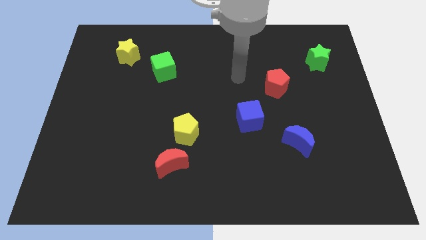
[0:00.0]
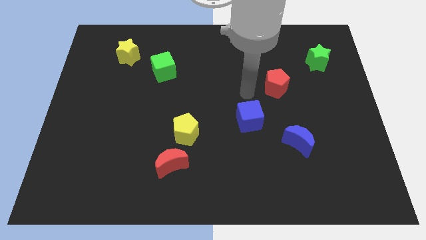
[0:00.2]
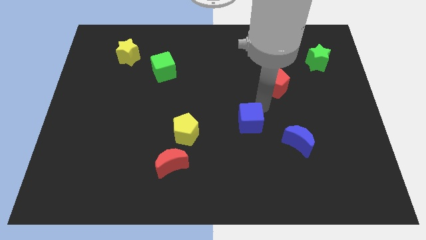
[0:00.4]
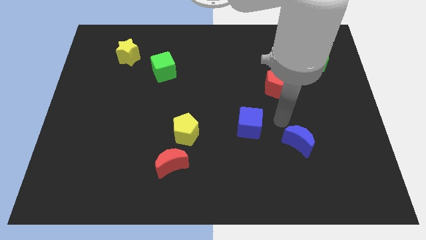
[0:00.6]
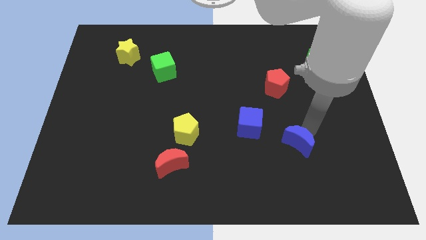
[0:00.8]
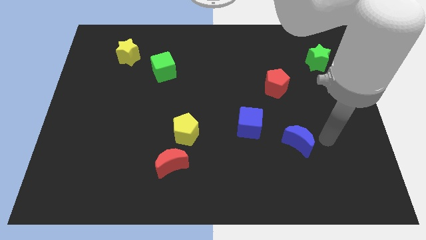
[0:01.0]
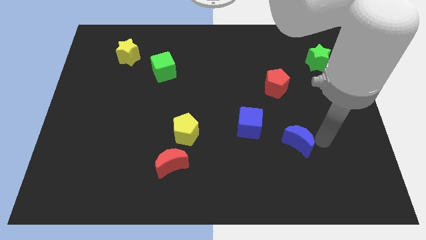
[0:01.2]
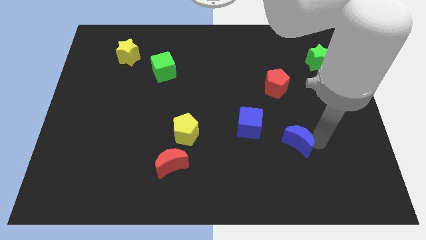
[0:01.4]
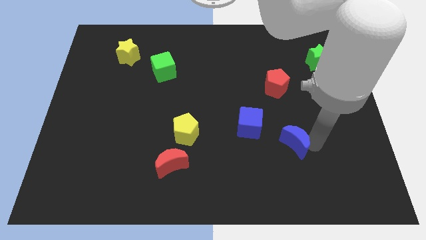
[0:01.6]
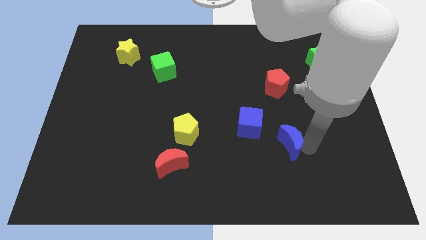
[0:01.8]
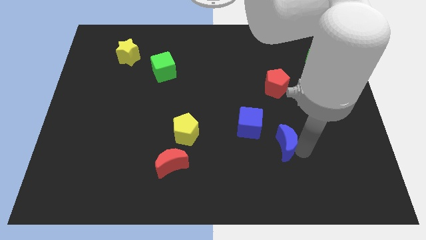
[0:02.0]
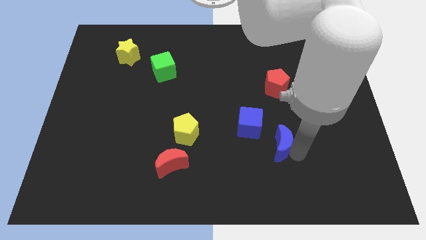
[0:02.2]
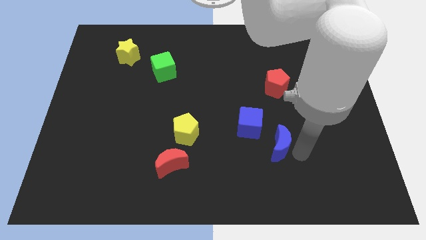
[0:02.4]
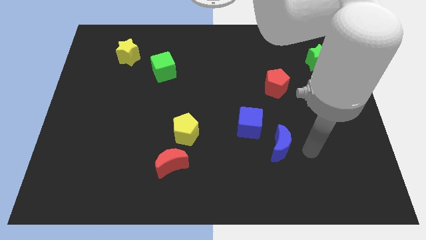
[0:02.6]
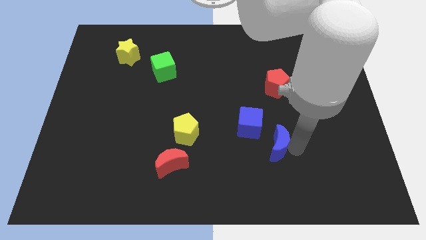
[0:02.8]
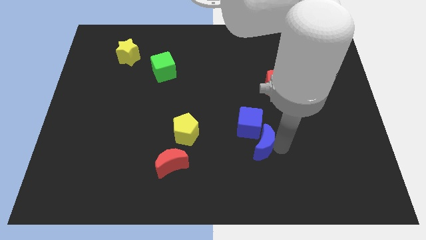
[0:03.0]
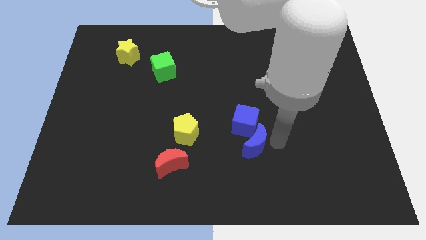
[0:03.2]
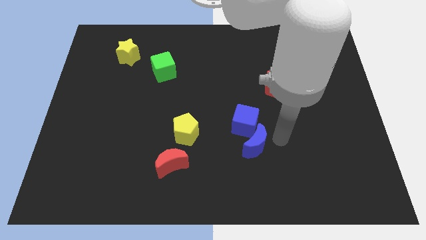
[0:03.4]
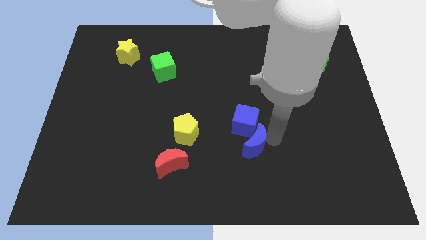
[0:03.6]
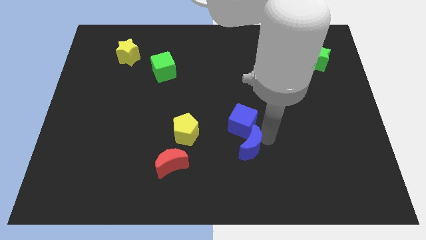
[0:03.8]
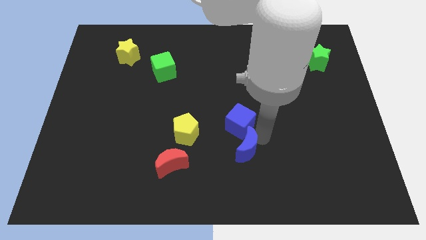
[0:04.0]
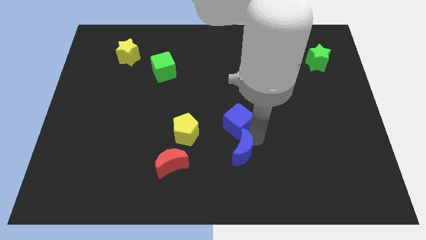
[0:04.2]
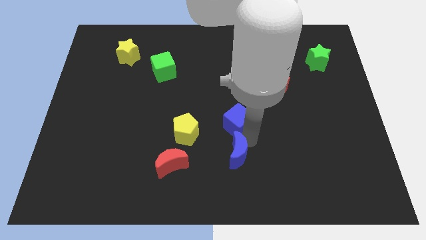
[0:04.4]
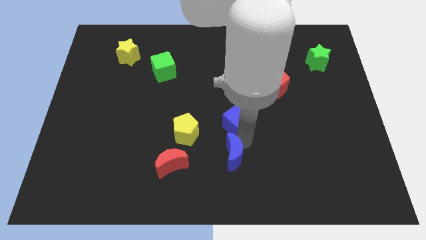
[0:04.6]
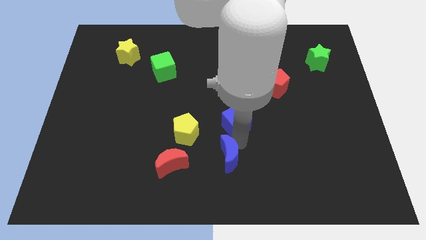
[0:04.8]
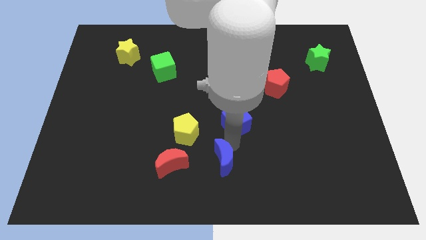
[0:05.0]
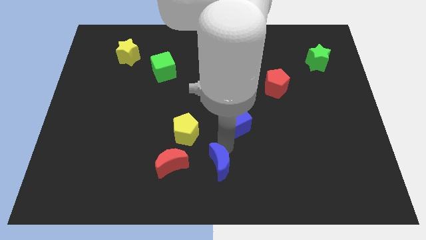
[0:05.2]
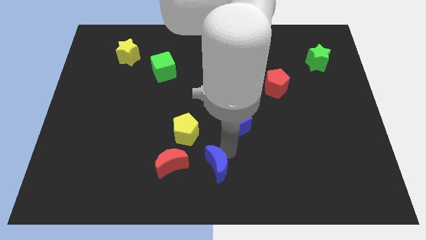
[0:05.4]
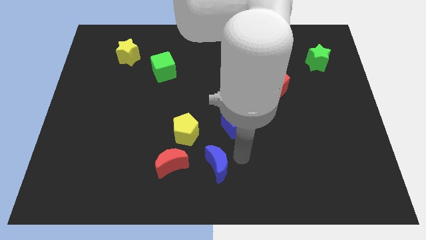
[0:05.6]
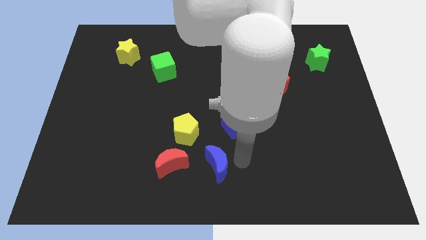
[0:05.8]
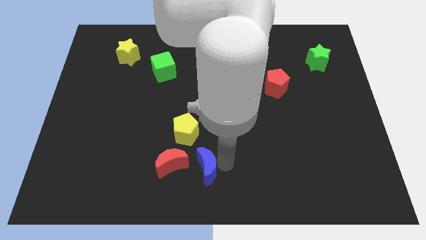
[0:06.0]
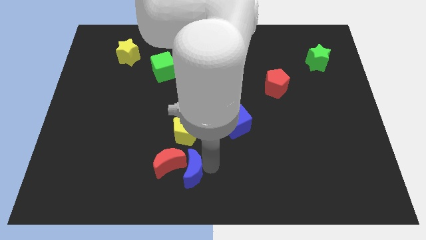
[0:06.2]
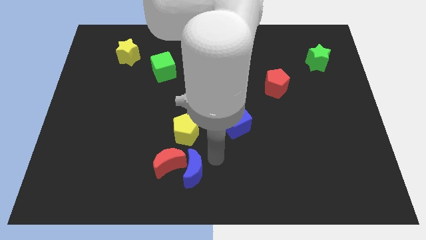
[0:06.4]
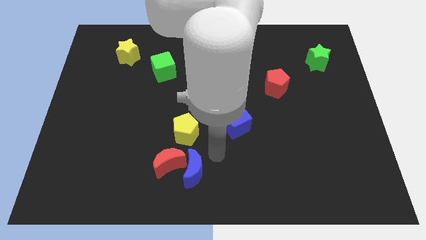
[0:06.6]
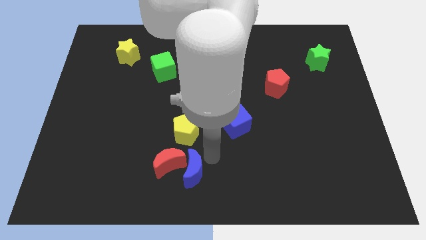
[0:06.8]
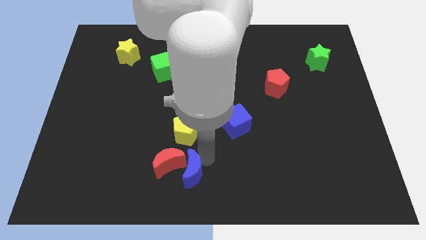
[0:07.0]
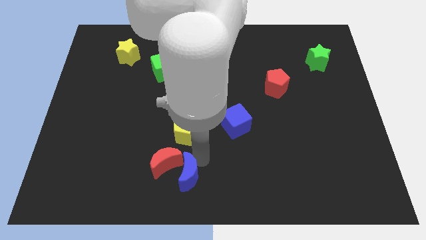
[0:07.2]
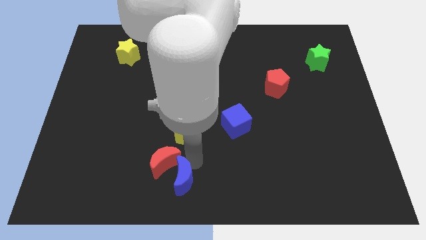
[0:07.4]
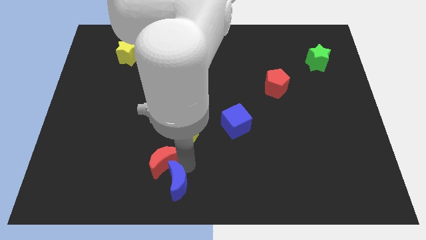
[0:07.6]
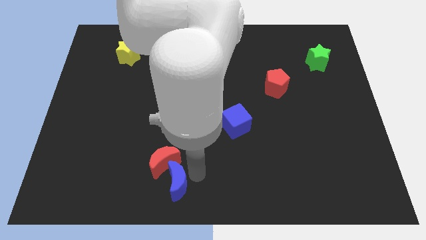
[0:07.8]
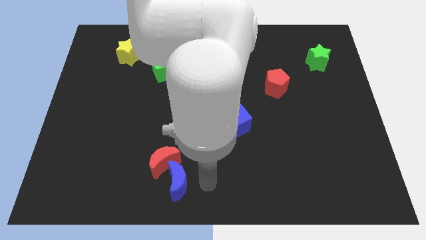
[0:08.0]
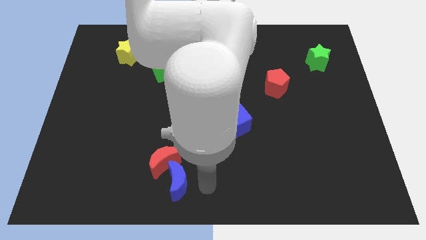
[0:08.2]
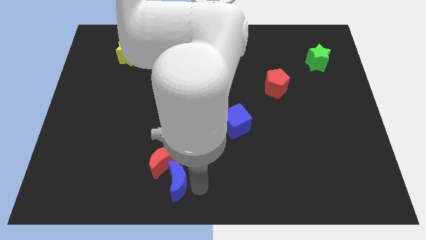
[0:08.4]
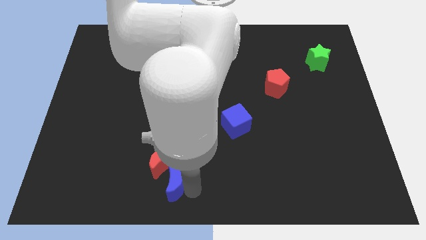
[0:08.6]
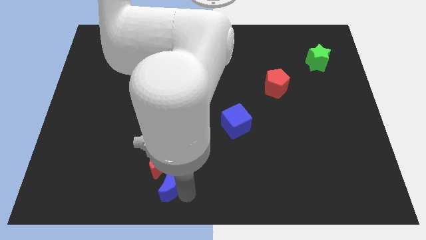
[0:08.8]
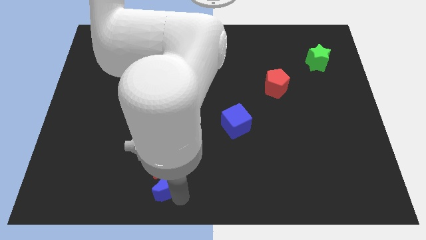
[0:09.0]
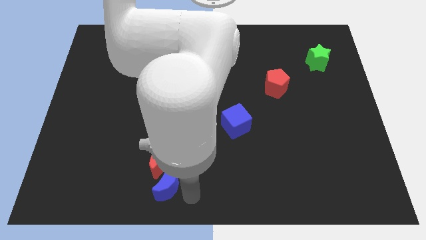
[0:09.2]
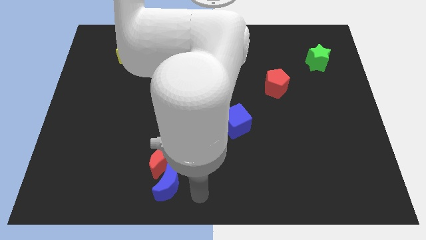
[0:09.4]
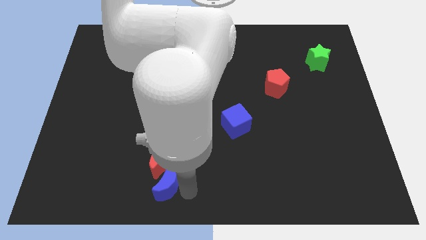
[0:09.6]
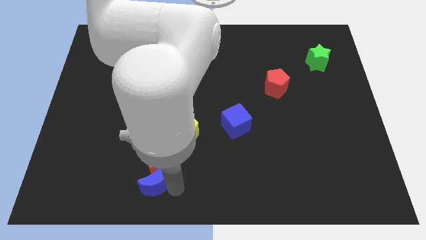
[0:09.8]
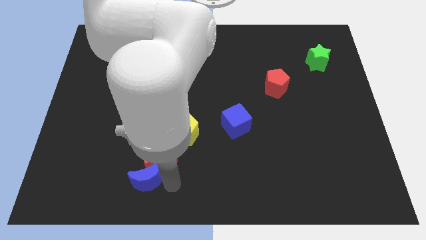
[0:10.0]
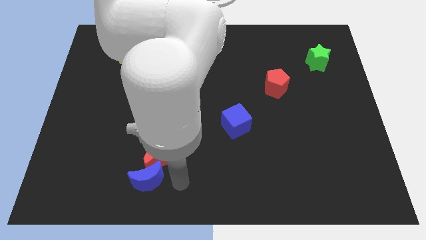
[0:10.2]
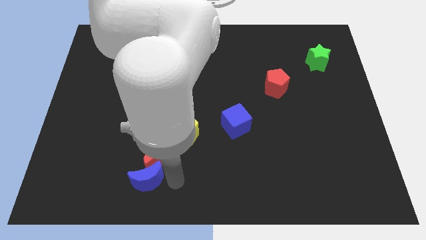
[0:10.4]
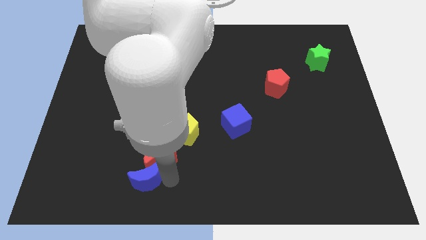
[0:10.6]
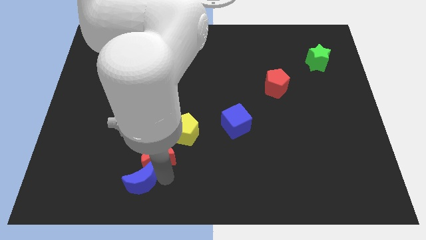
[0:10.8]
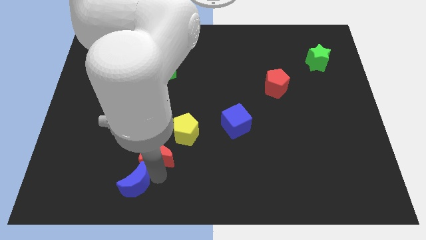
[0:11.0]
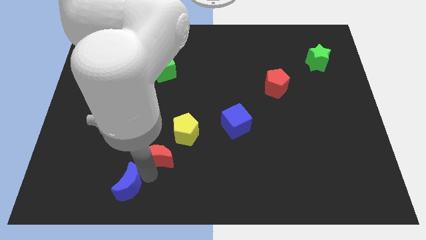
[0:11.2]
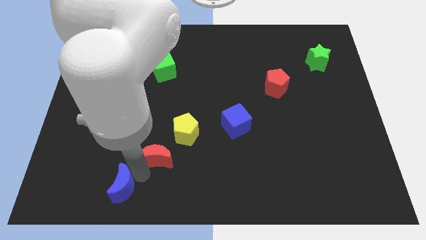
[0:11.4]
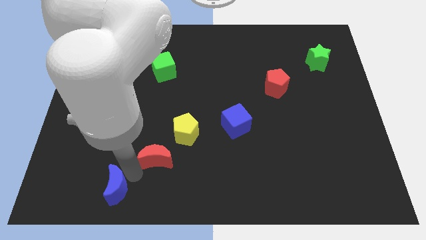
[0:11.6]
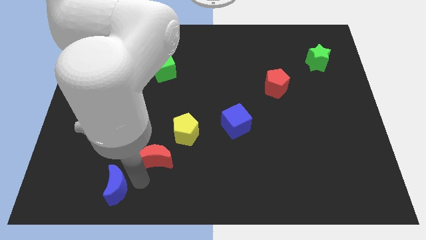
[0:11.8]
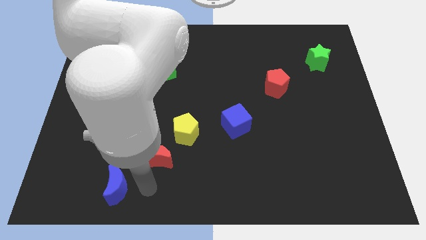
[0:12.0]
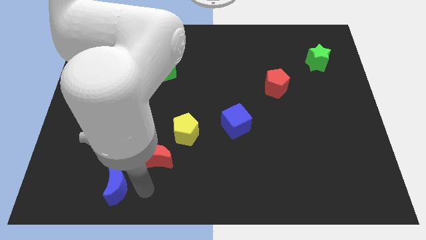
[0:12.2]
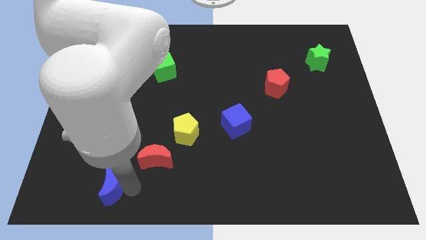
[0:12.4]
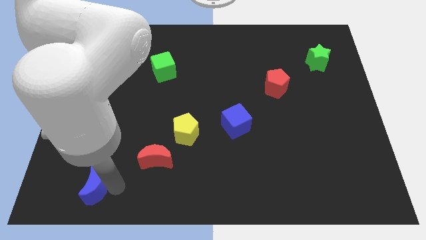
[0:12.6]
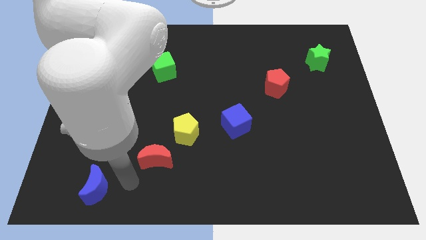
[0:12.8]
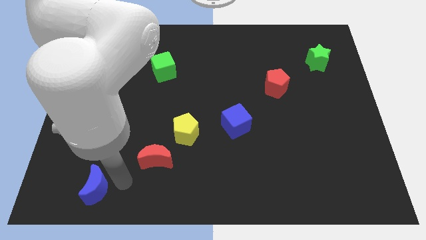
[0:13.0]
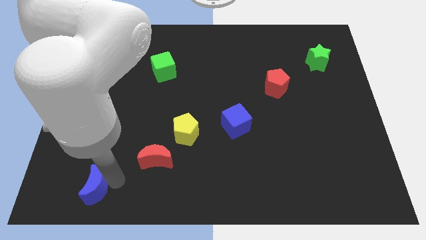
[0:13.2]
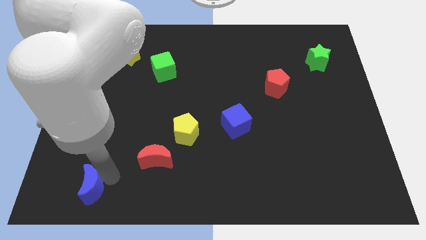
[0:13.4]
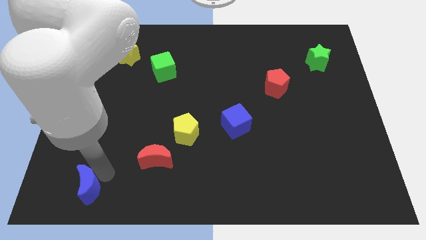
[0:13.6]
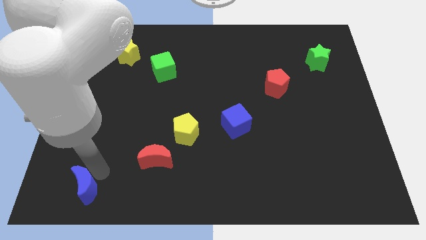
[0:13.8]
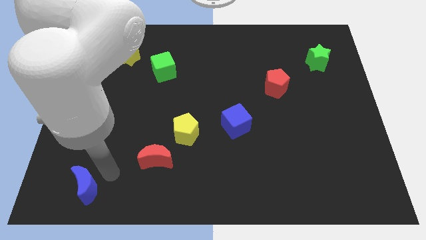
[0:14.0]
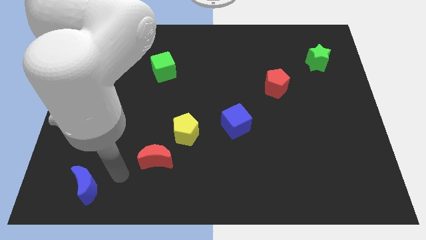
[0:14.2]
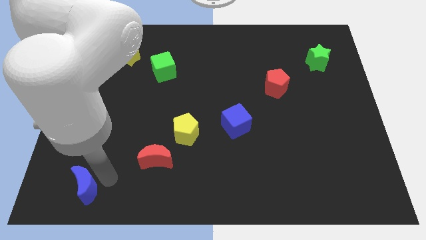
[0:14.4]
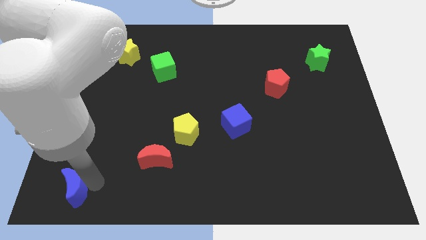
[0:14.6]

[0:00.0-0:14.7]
move the blue moon to the bottom left of the board
